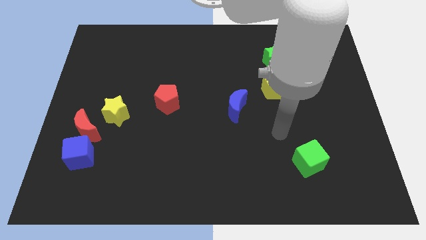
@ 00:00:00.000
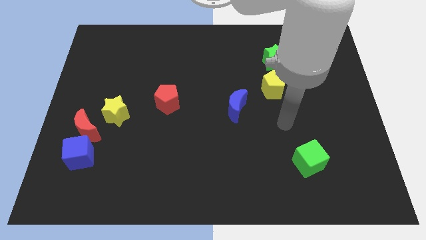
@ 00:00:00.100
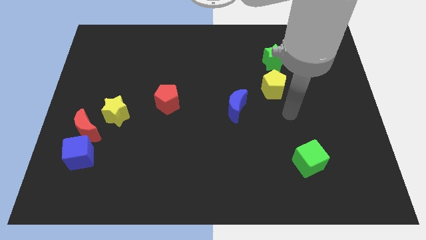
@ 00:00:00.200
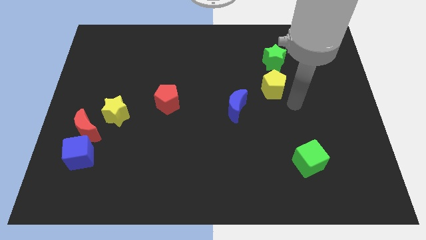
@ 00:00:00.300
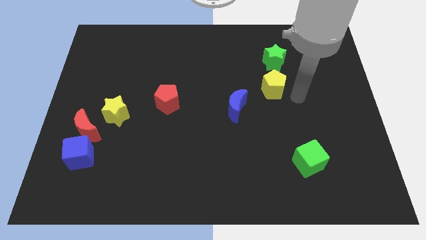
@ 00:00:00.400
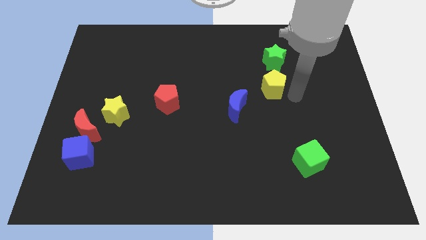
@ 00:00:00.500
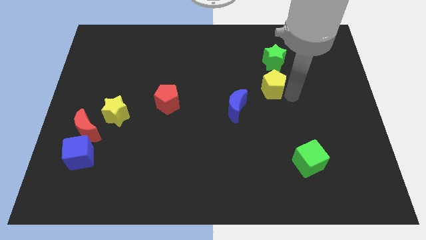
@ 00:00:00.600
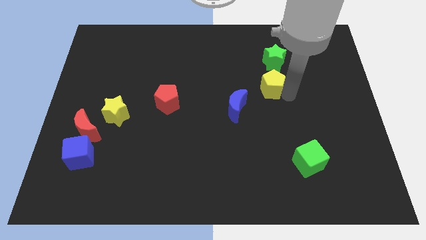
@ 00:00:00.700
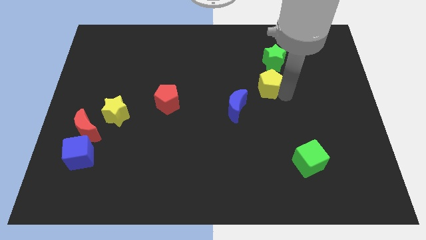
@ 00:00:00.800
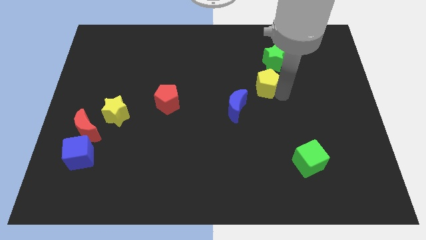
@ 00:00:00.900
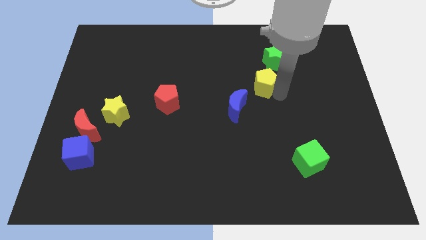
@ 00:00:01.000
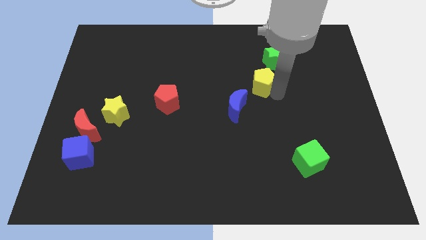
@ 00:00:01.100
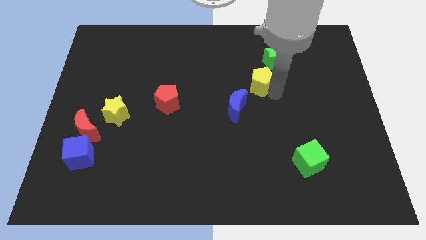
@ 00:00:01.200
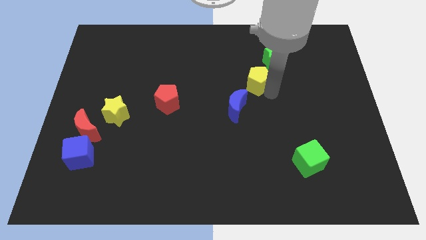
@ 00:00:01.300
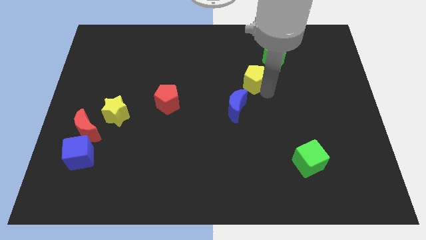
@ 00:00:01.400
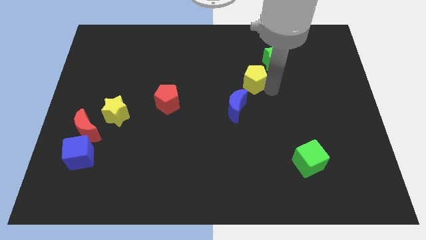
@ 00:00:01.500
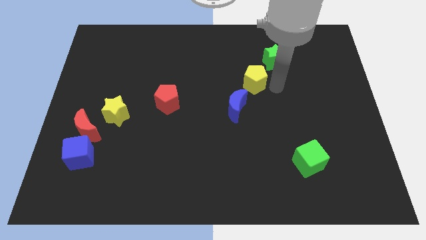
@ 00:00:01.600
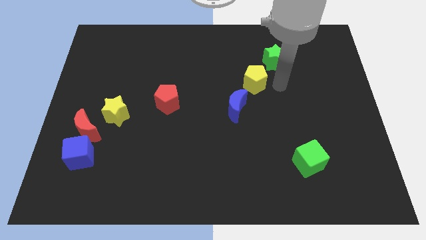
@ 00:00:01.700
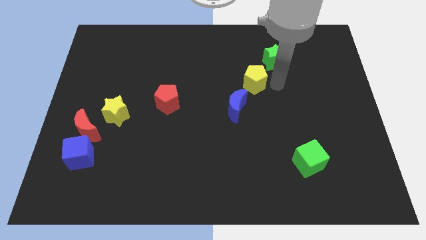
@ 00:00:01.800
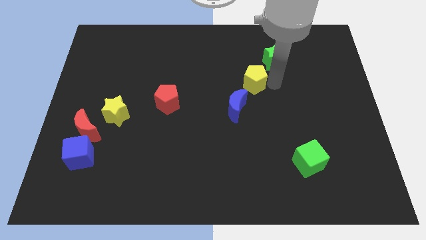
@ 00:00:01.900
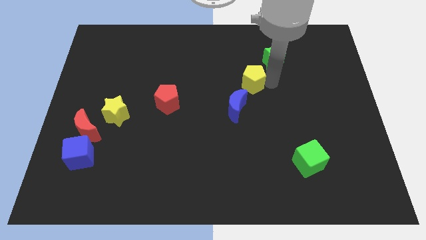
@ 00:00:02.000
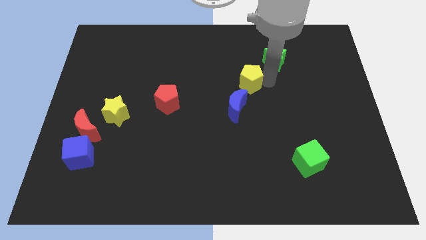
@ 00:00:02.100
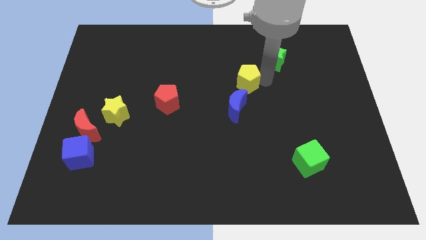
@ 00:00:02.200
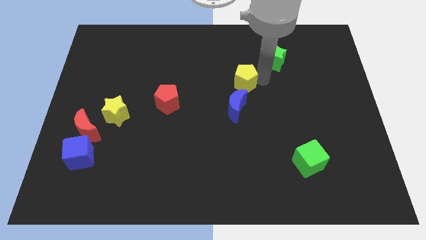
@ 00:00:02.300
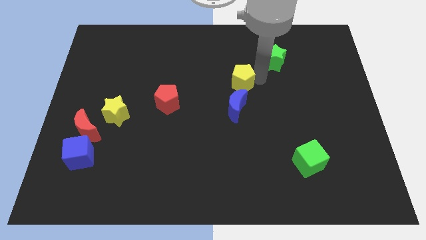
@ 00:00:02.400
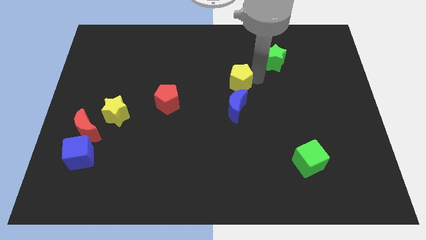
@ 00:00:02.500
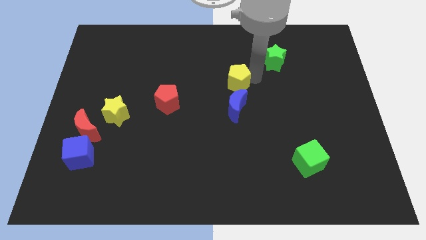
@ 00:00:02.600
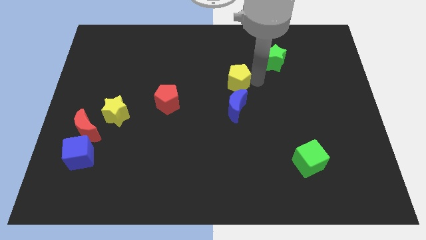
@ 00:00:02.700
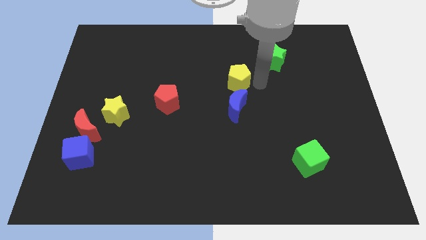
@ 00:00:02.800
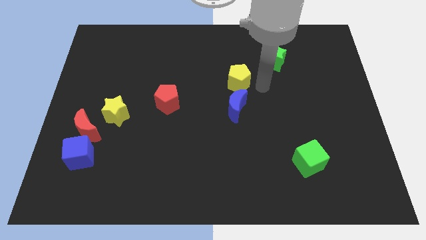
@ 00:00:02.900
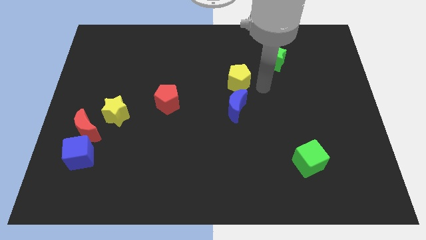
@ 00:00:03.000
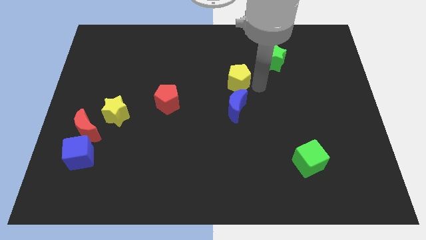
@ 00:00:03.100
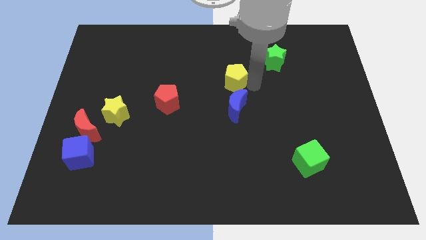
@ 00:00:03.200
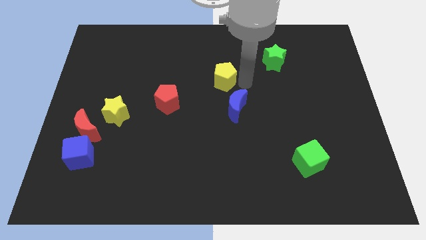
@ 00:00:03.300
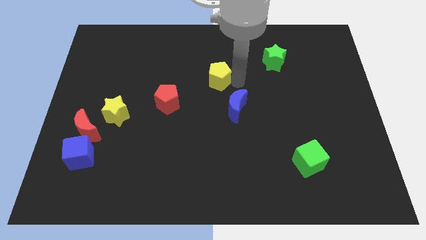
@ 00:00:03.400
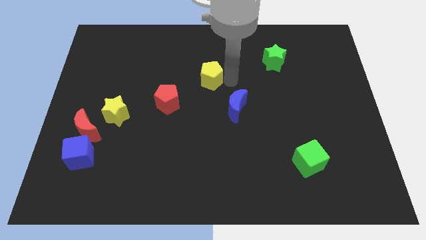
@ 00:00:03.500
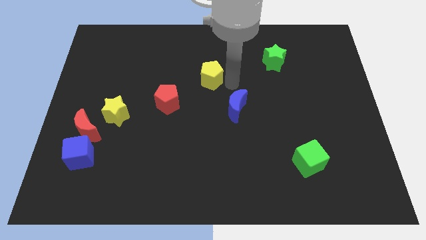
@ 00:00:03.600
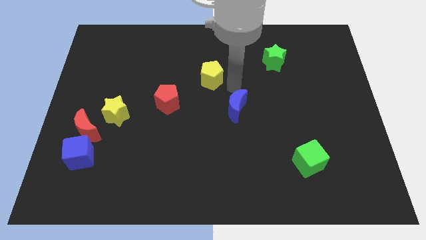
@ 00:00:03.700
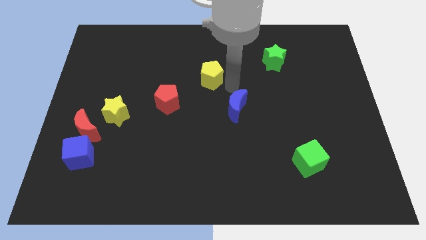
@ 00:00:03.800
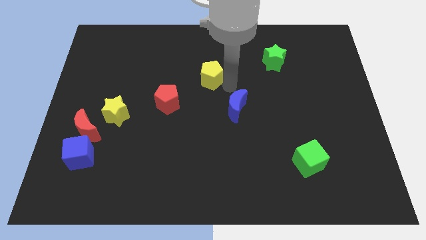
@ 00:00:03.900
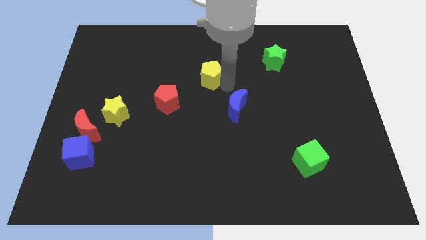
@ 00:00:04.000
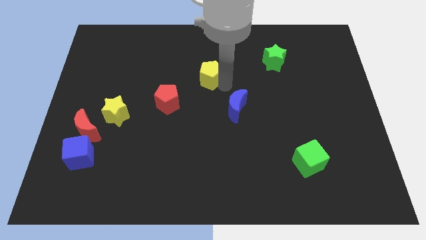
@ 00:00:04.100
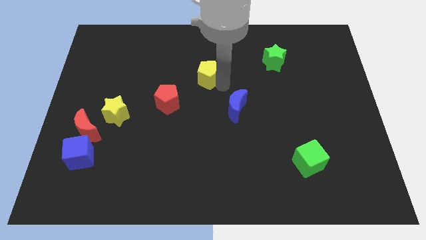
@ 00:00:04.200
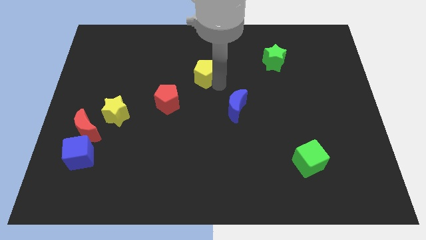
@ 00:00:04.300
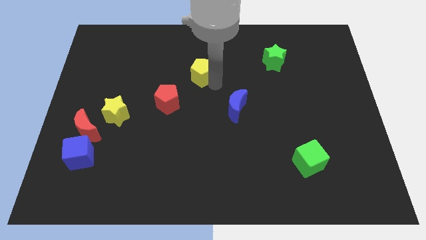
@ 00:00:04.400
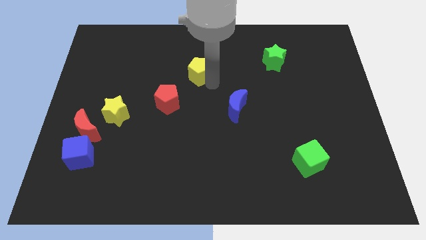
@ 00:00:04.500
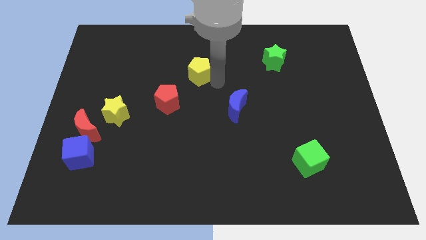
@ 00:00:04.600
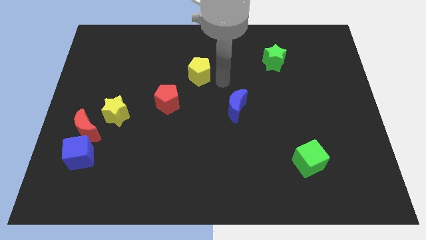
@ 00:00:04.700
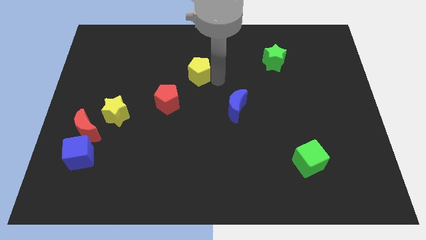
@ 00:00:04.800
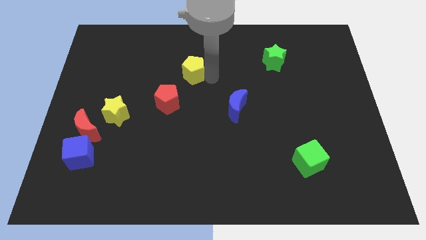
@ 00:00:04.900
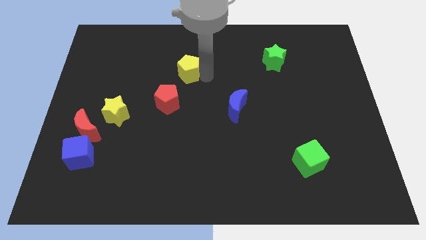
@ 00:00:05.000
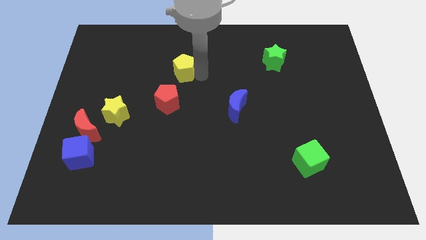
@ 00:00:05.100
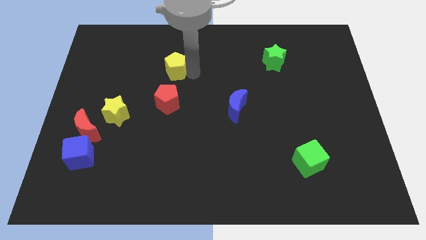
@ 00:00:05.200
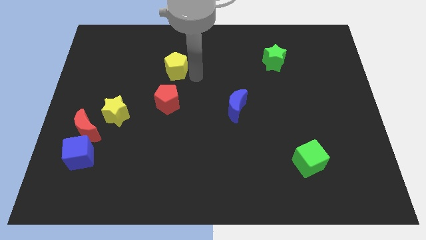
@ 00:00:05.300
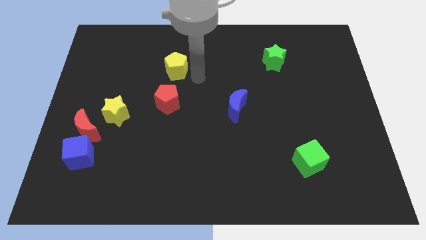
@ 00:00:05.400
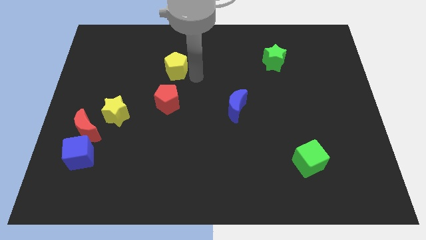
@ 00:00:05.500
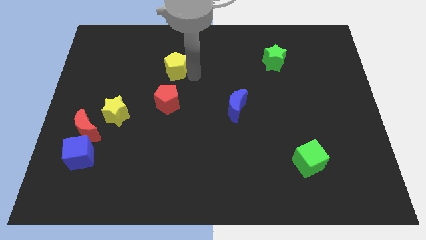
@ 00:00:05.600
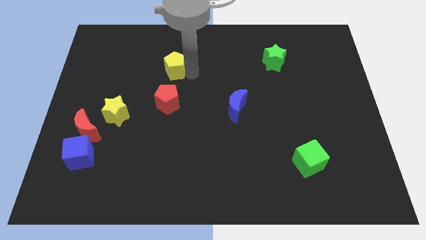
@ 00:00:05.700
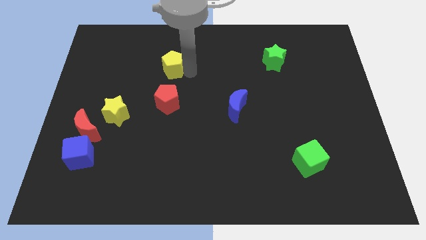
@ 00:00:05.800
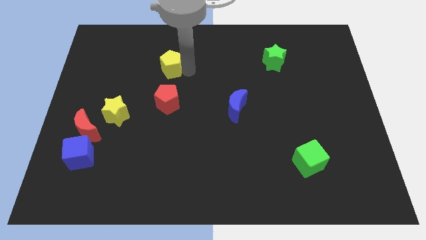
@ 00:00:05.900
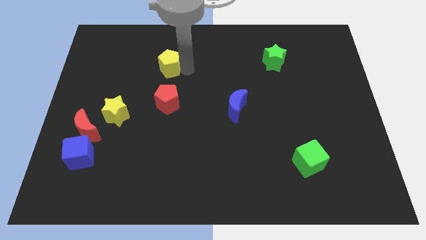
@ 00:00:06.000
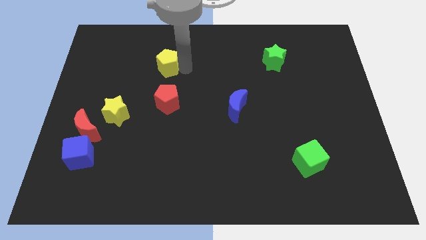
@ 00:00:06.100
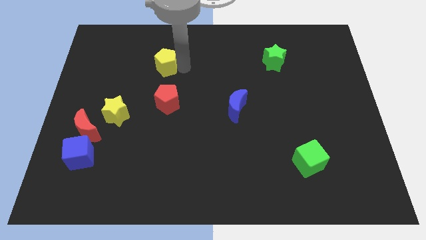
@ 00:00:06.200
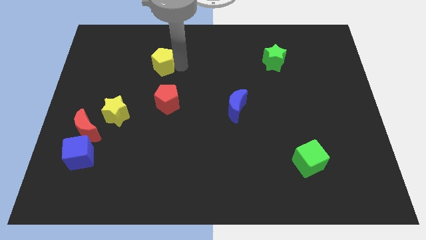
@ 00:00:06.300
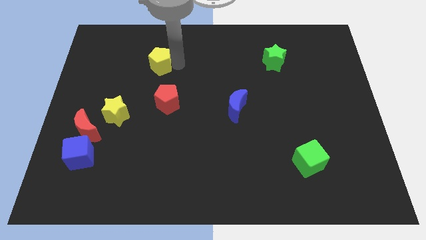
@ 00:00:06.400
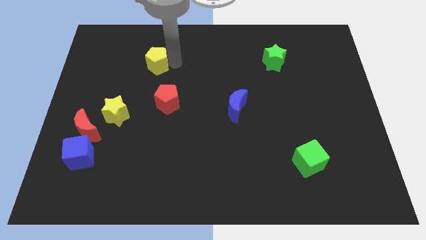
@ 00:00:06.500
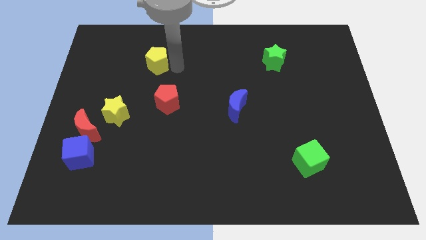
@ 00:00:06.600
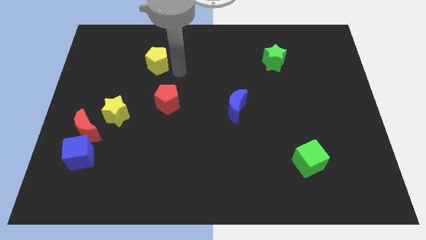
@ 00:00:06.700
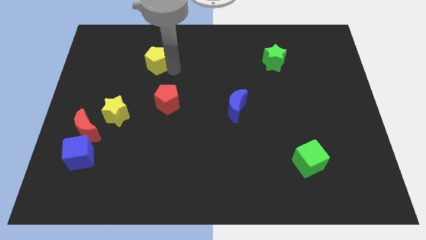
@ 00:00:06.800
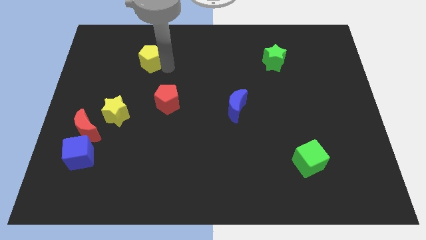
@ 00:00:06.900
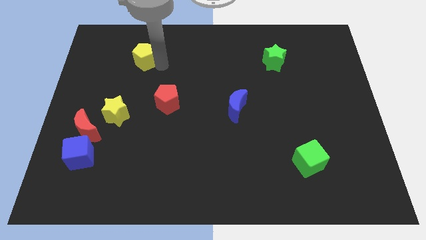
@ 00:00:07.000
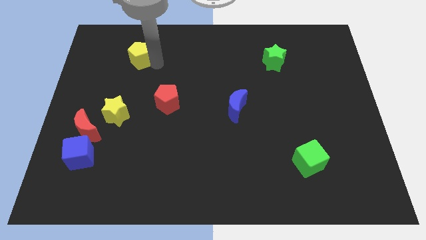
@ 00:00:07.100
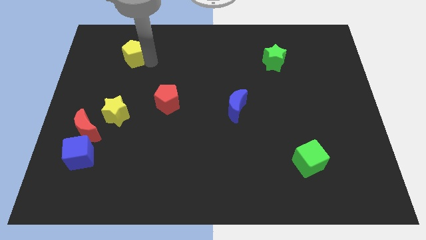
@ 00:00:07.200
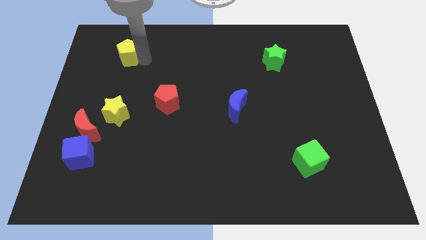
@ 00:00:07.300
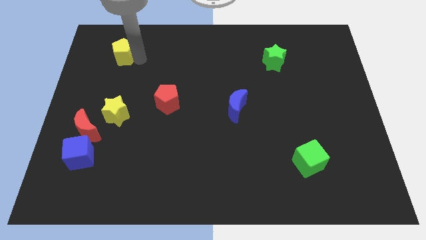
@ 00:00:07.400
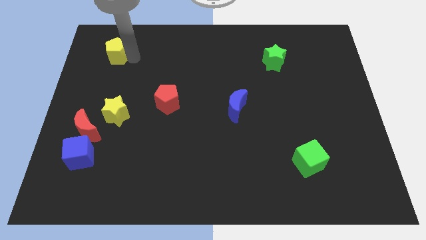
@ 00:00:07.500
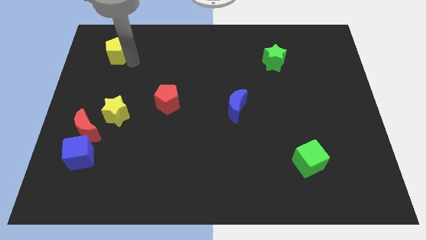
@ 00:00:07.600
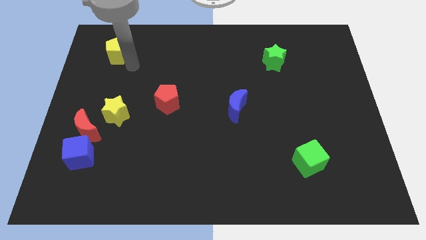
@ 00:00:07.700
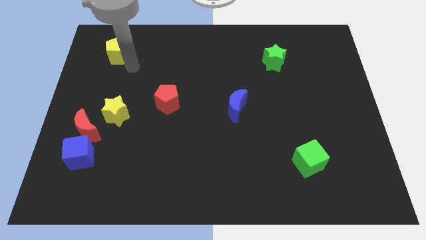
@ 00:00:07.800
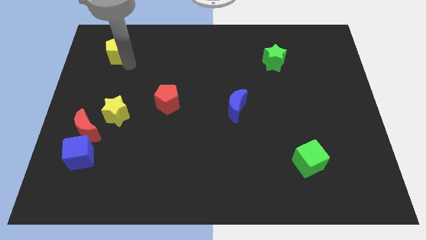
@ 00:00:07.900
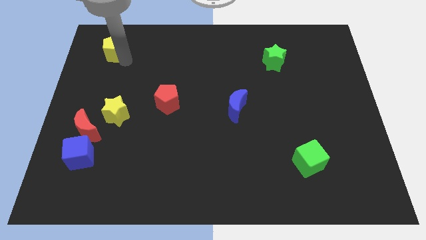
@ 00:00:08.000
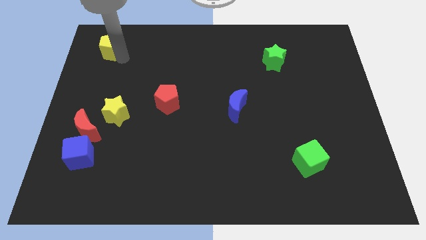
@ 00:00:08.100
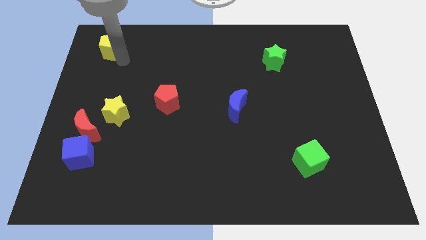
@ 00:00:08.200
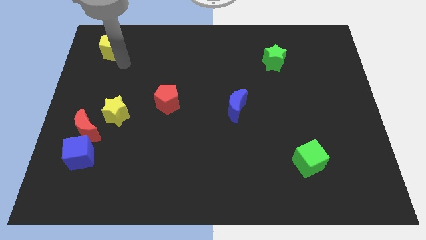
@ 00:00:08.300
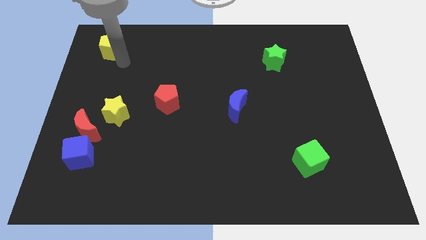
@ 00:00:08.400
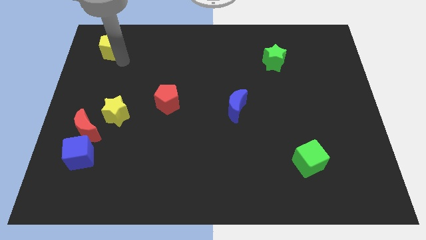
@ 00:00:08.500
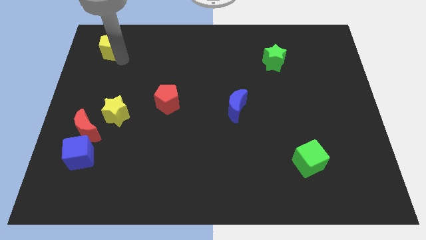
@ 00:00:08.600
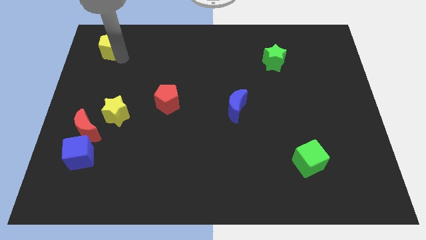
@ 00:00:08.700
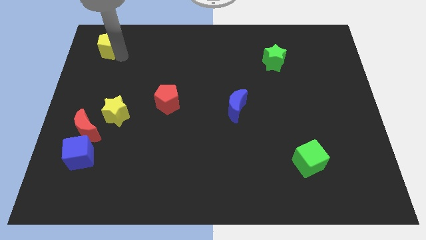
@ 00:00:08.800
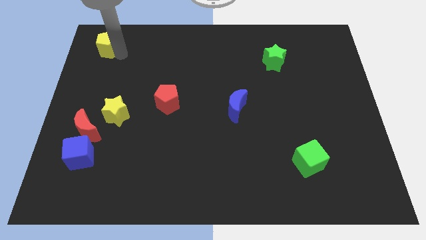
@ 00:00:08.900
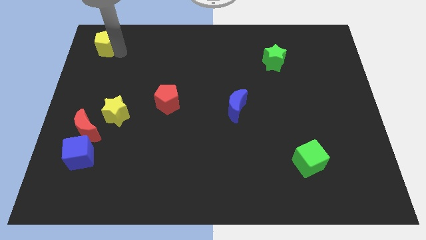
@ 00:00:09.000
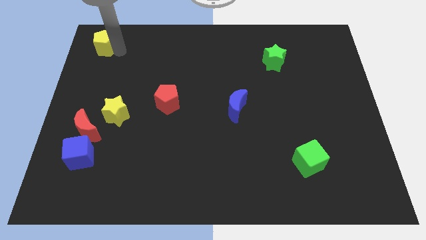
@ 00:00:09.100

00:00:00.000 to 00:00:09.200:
push the yellow pentagon to the top left
